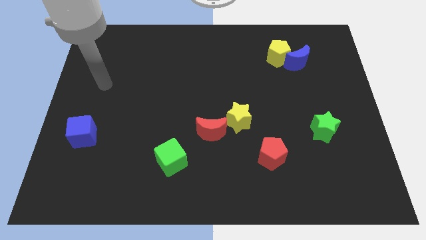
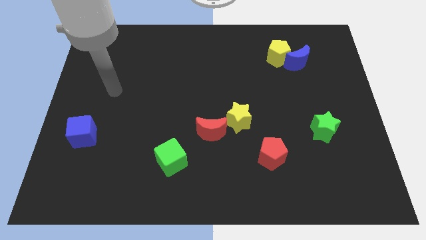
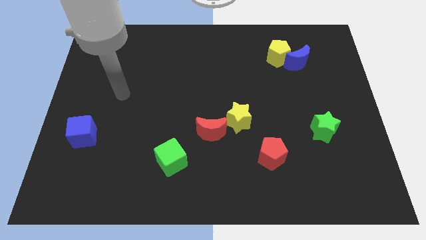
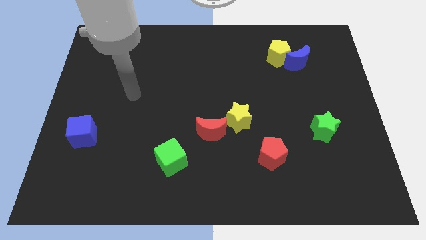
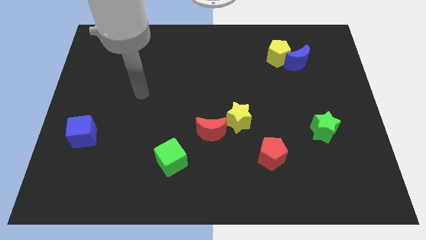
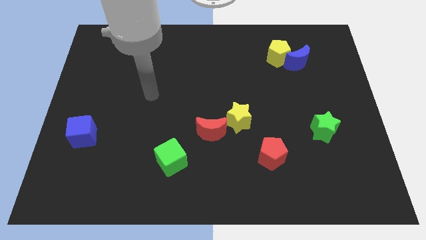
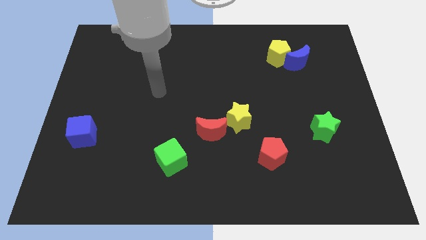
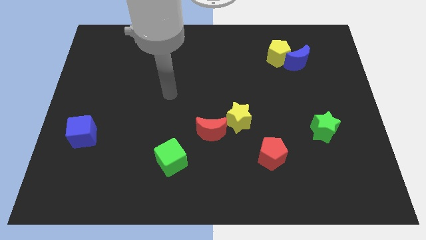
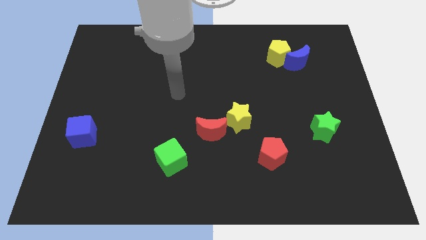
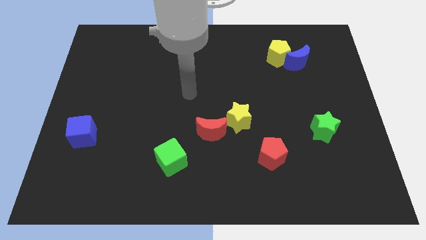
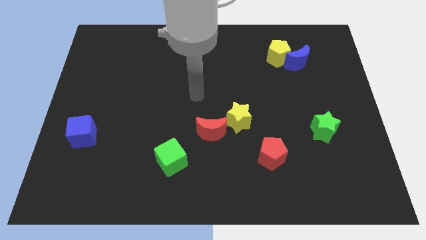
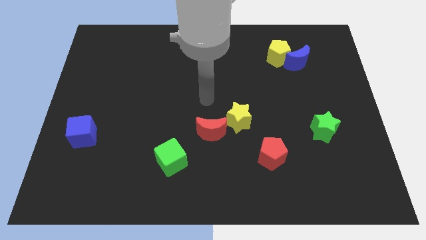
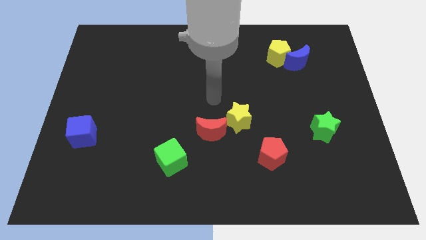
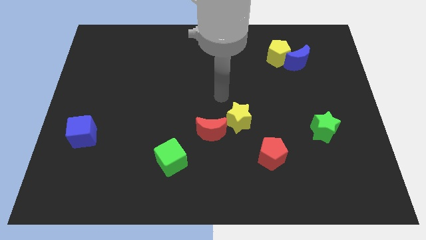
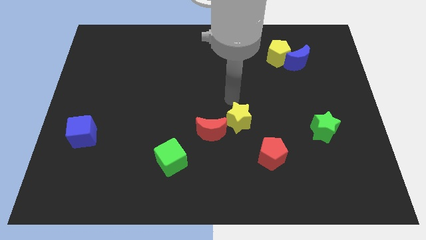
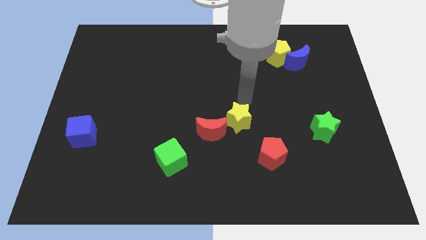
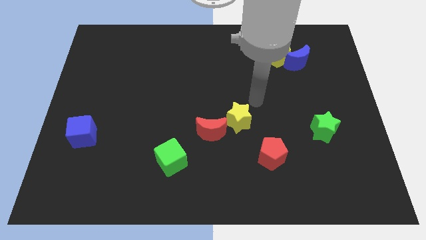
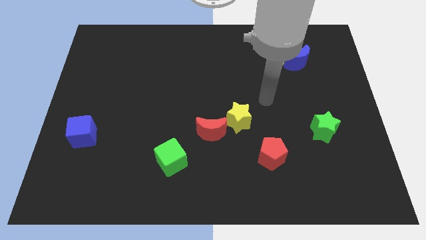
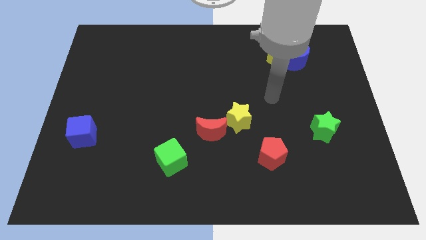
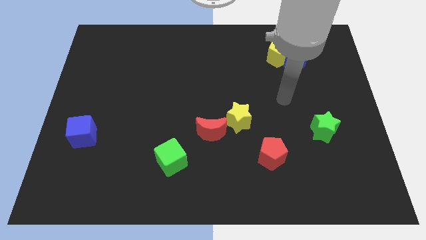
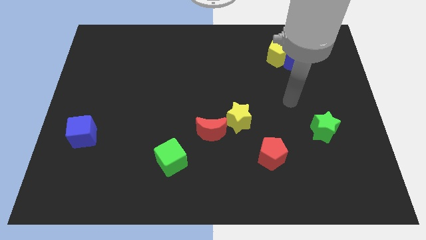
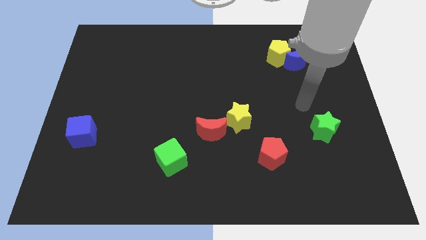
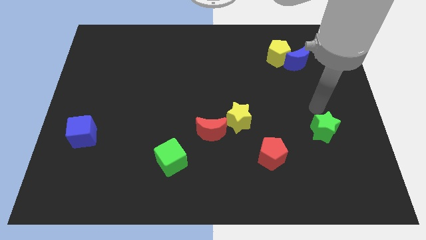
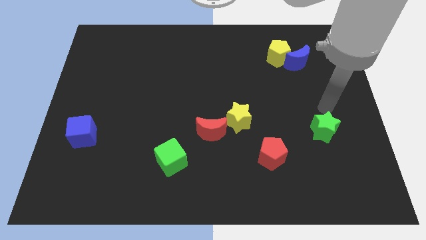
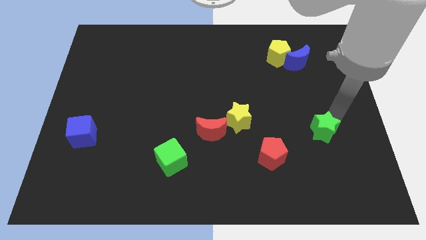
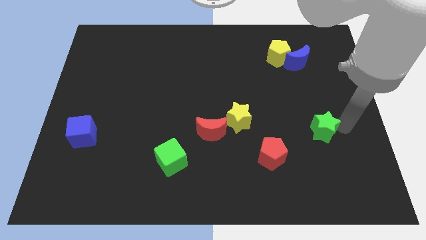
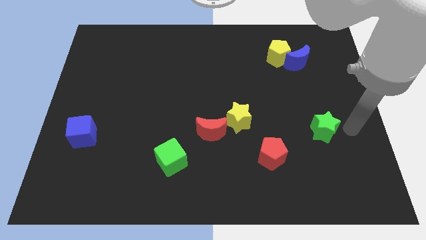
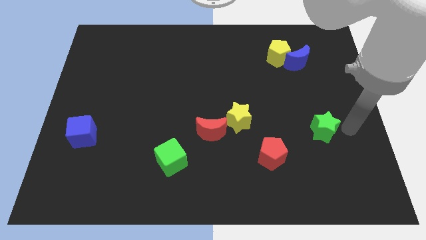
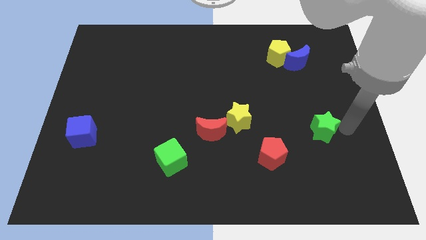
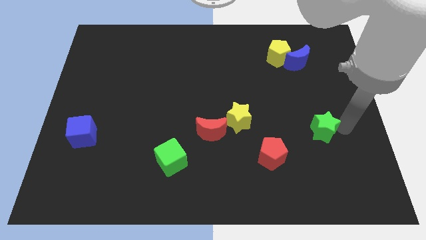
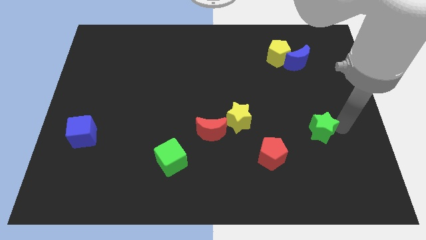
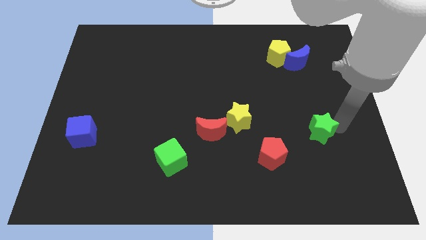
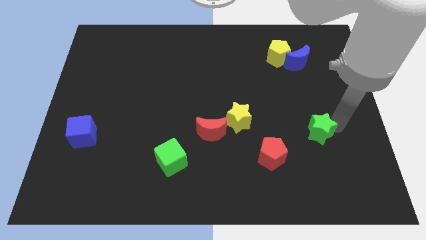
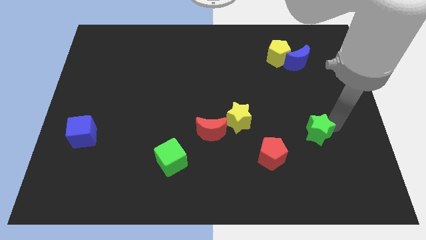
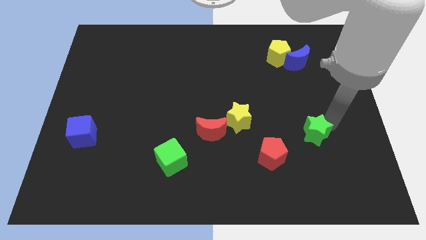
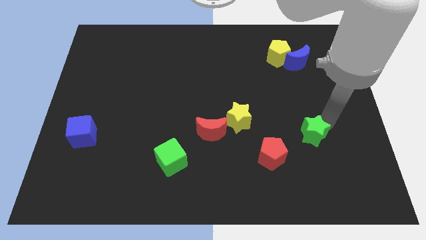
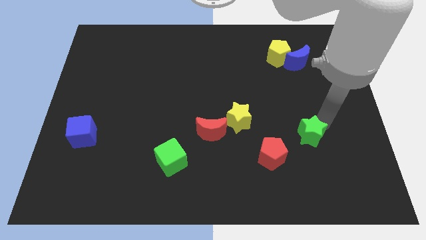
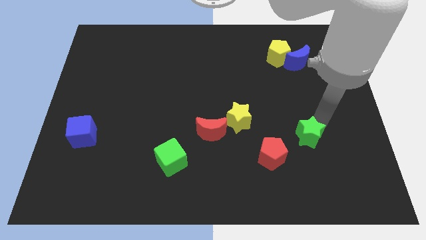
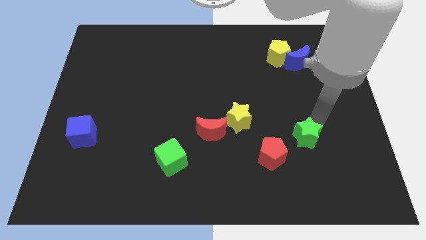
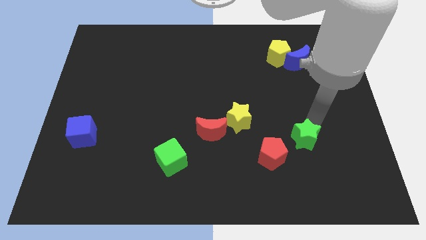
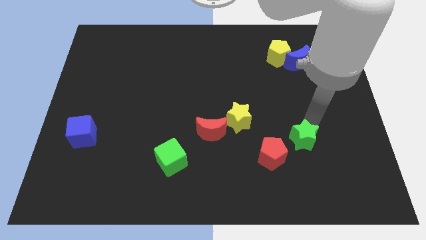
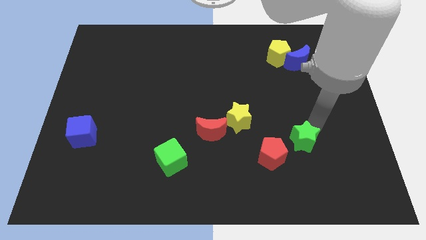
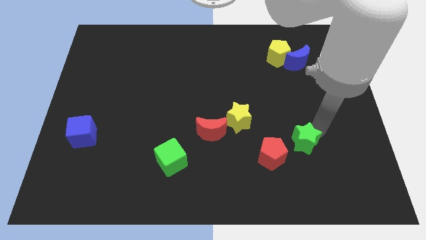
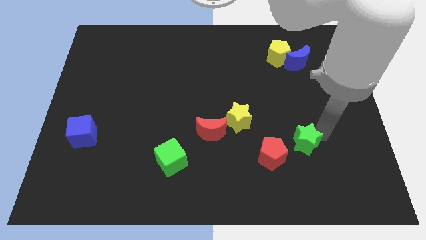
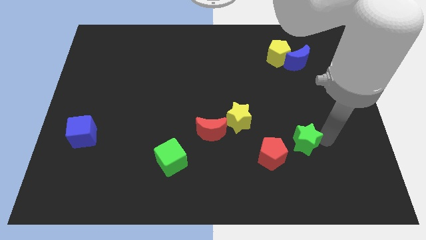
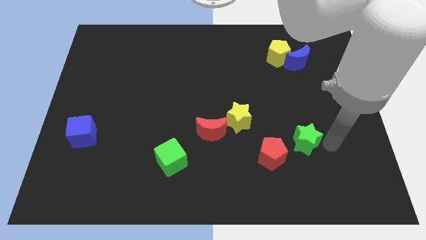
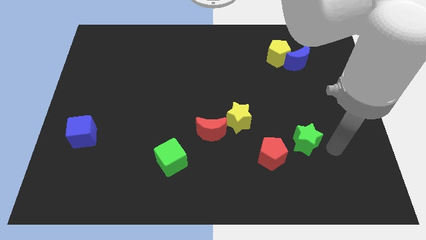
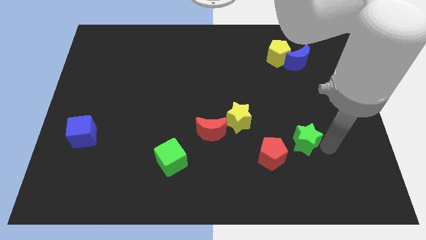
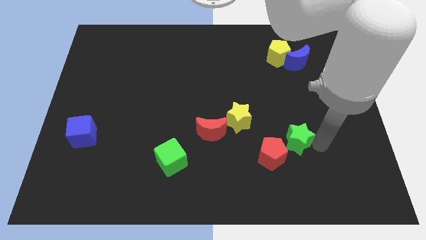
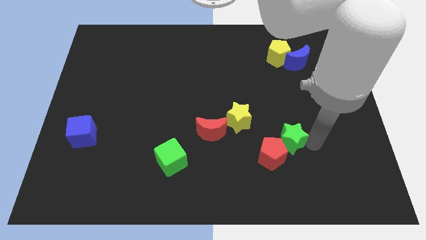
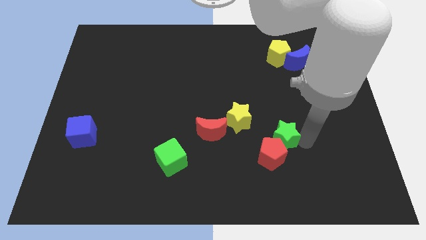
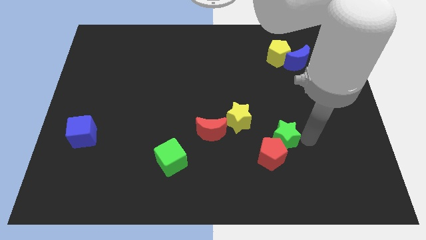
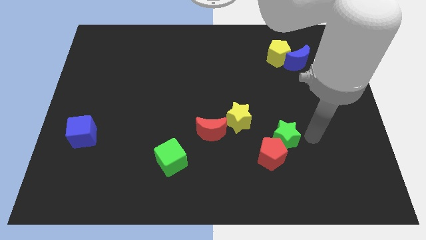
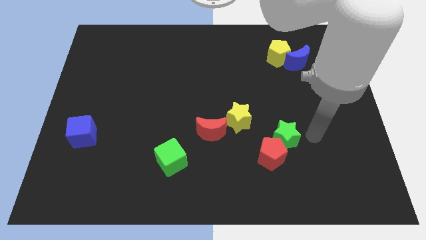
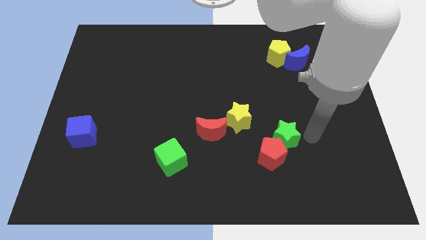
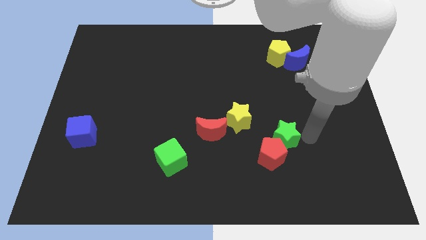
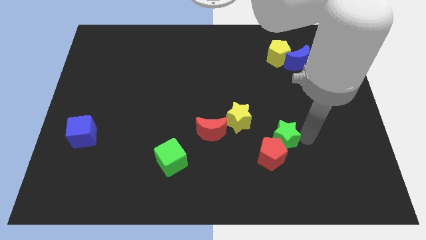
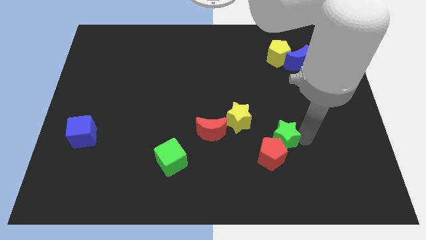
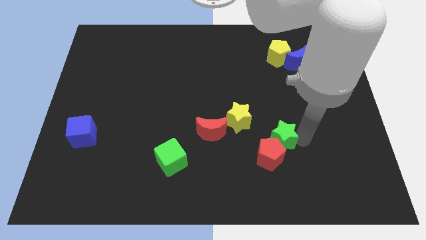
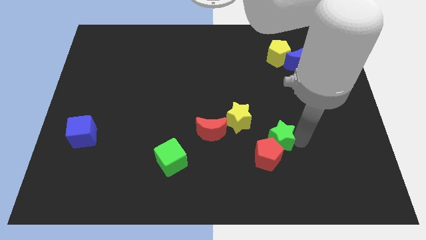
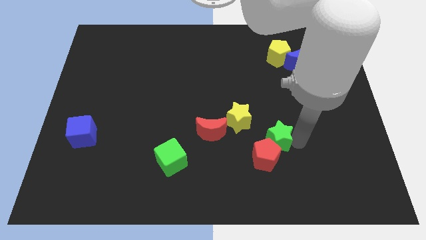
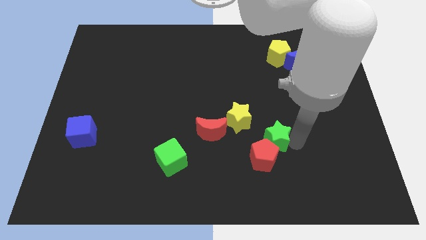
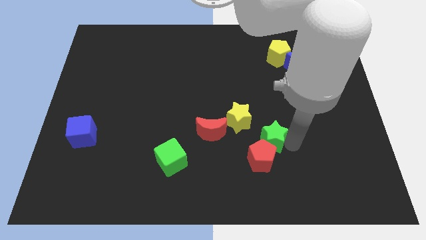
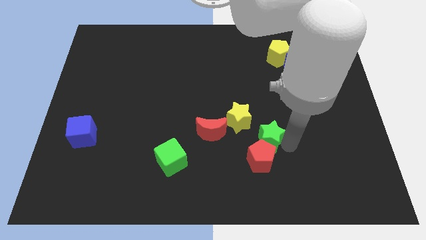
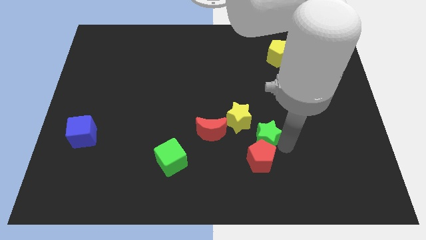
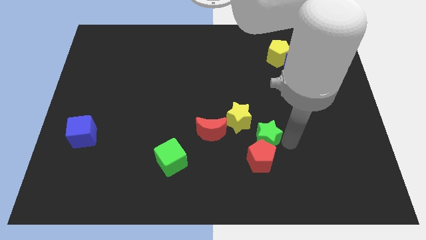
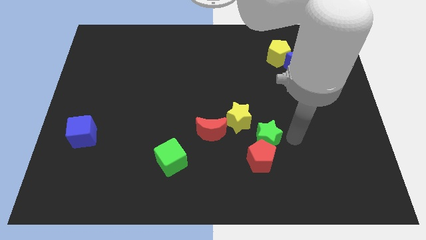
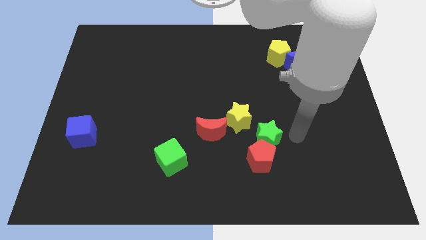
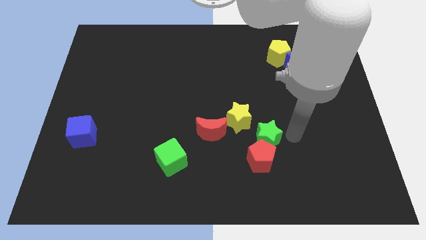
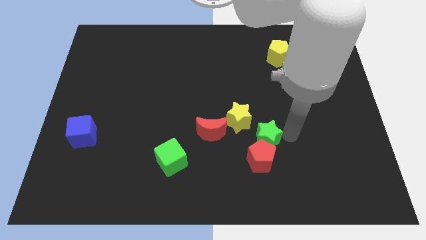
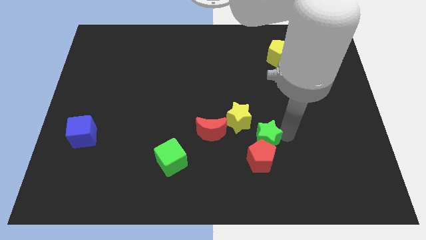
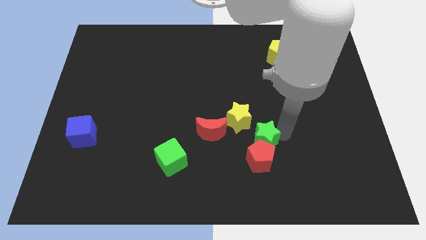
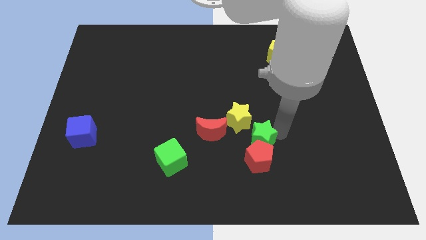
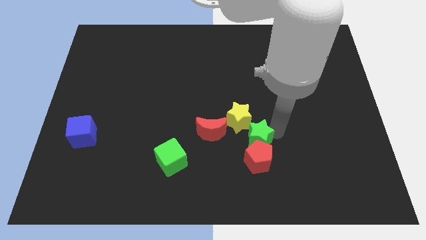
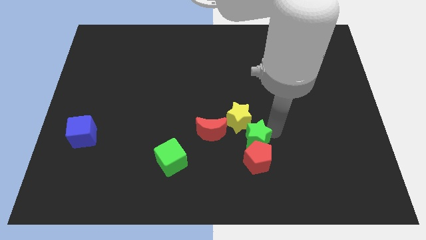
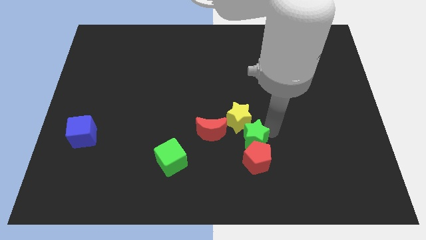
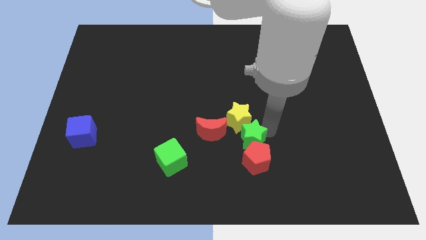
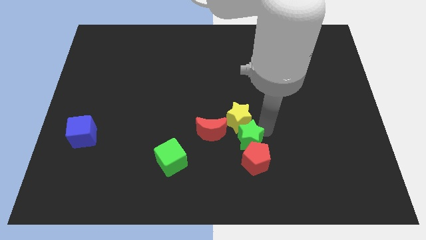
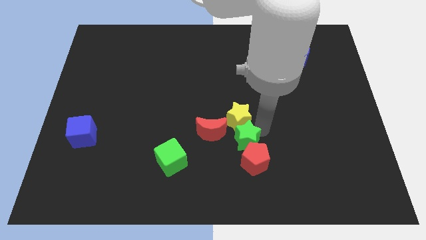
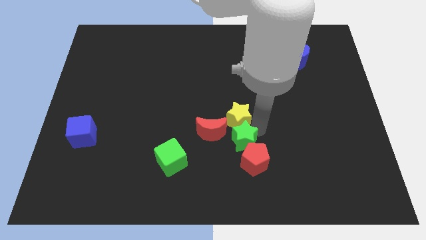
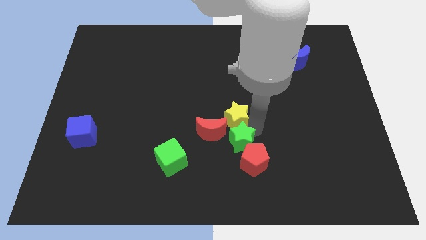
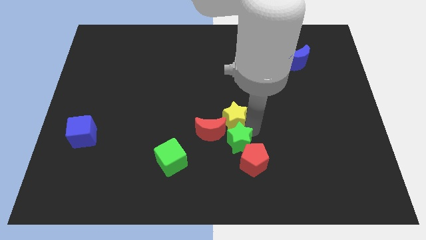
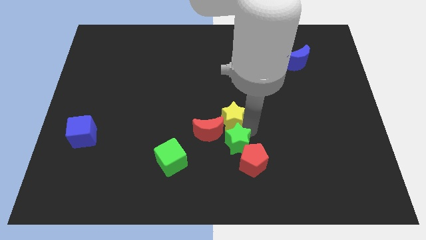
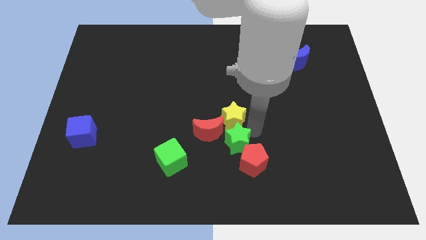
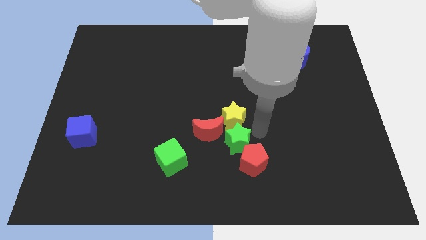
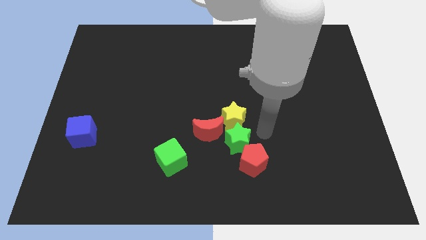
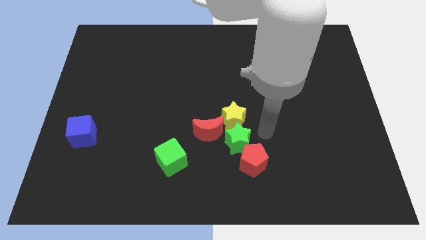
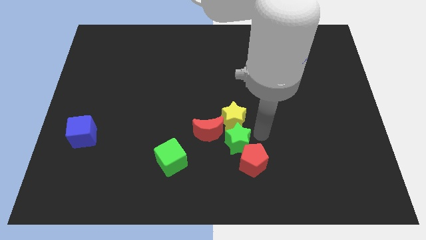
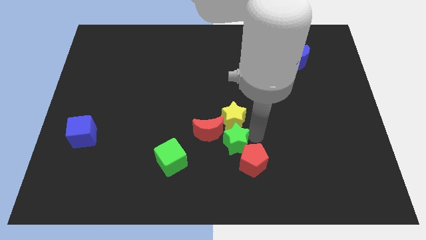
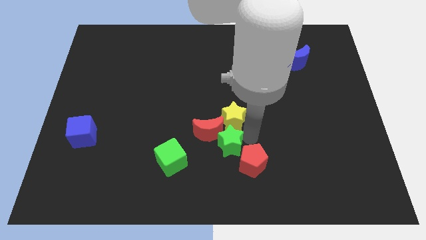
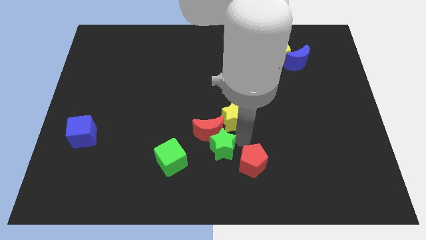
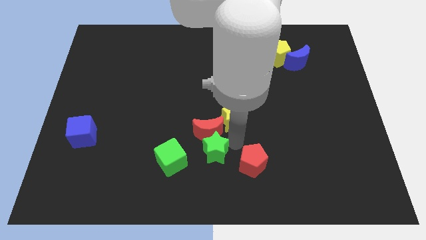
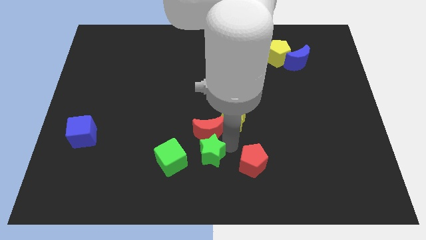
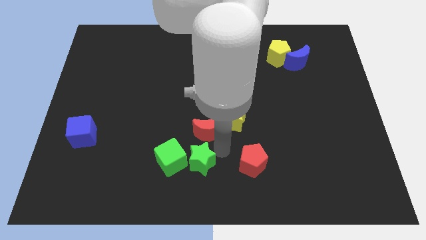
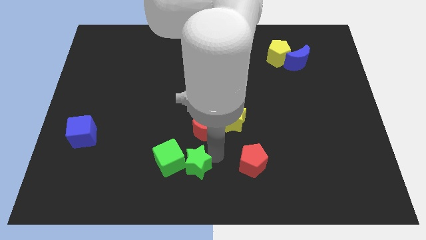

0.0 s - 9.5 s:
slide the green star towards the green cube
